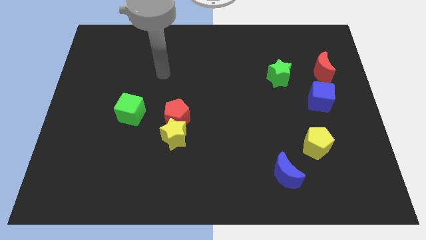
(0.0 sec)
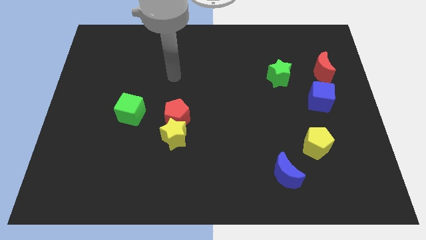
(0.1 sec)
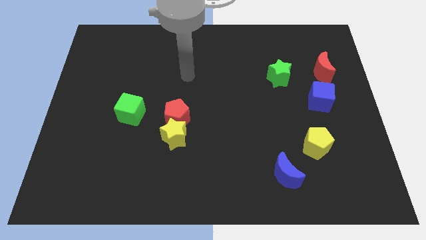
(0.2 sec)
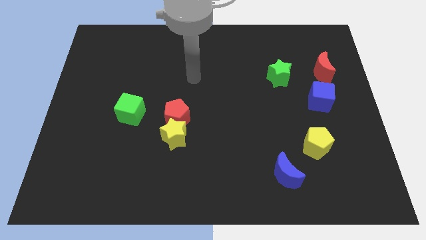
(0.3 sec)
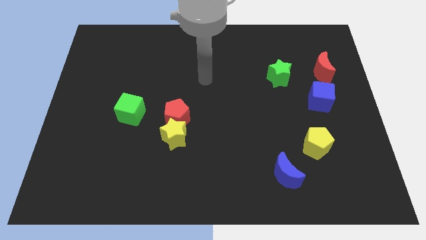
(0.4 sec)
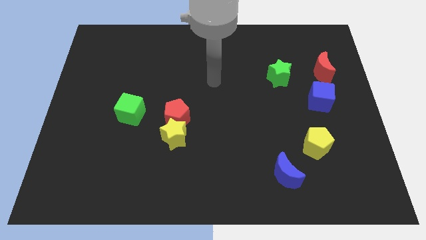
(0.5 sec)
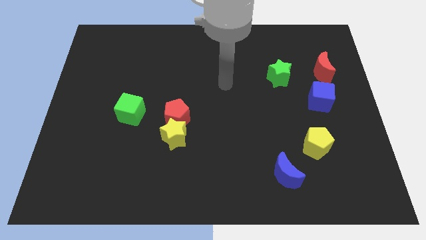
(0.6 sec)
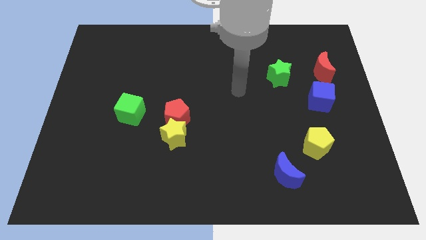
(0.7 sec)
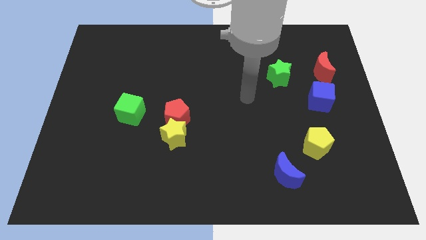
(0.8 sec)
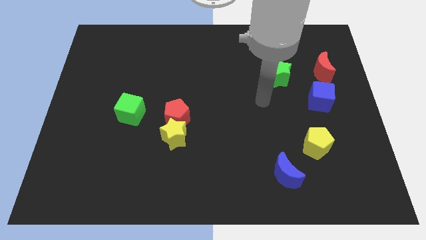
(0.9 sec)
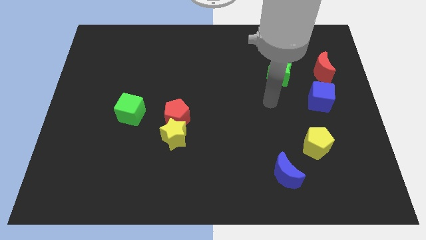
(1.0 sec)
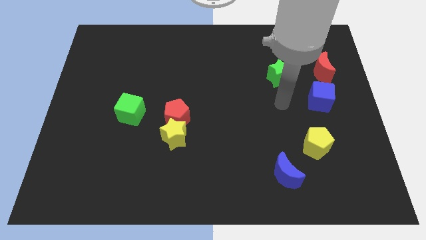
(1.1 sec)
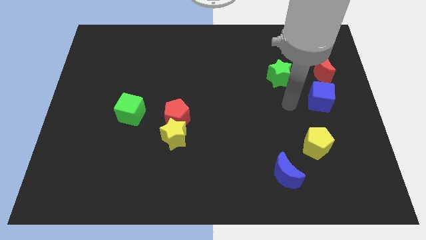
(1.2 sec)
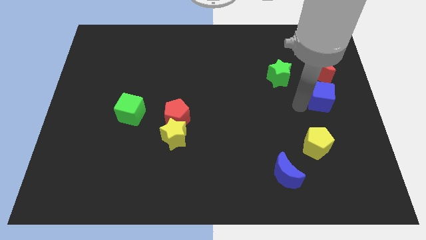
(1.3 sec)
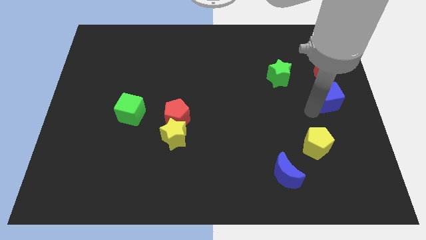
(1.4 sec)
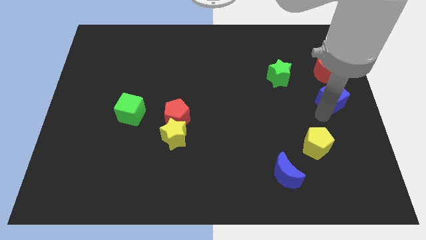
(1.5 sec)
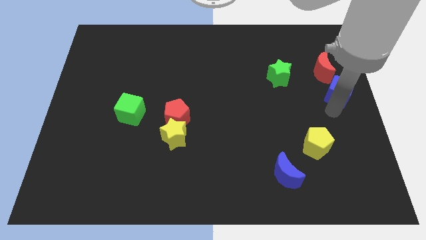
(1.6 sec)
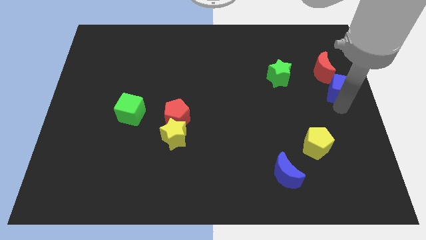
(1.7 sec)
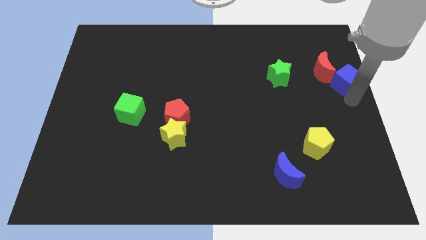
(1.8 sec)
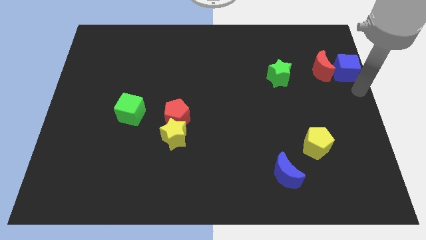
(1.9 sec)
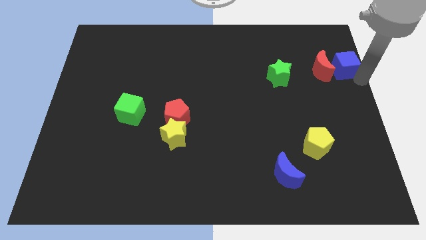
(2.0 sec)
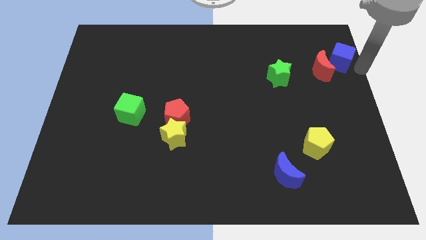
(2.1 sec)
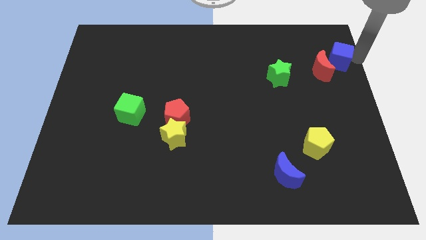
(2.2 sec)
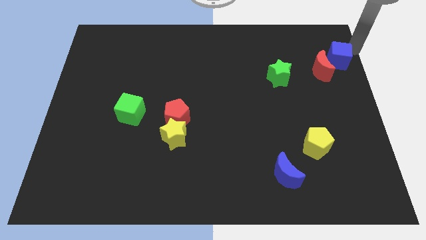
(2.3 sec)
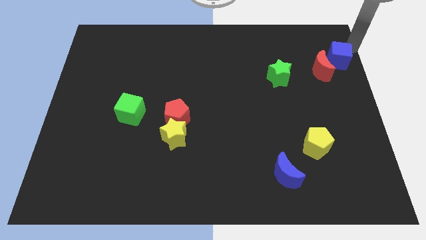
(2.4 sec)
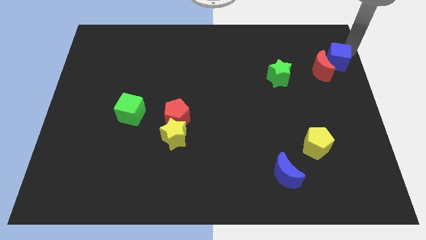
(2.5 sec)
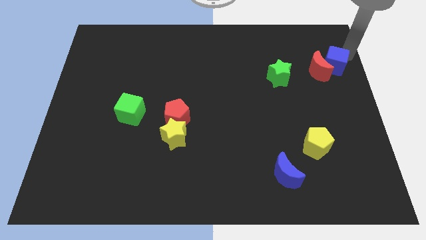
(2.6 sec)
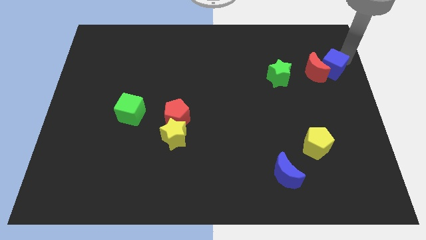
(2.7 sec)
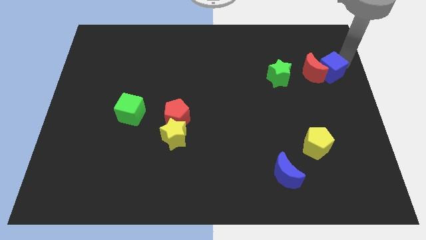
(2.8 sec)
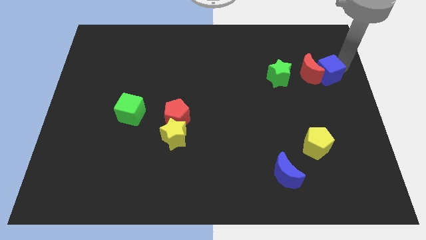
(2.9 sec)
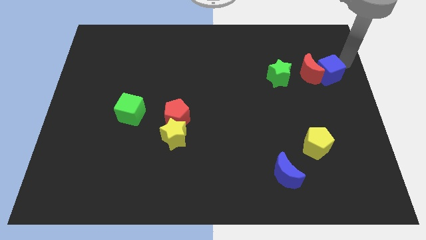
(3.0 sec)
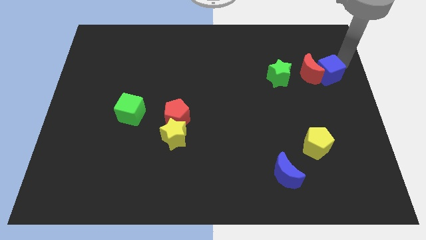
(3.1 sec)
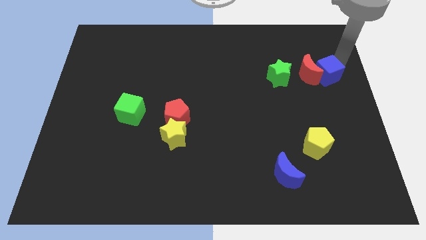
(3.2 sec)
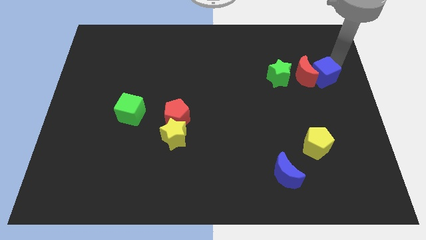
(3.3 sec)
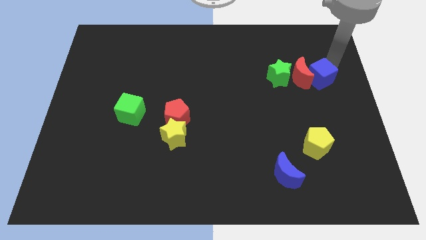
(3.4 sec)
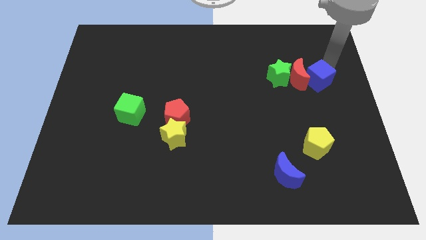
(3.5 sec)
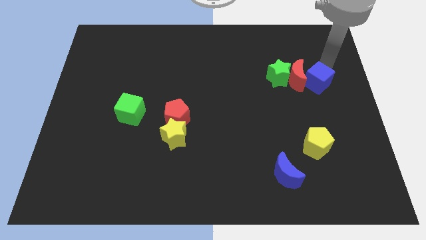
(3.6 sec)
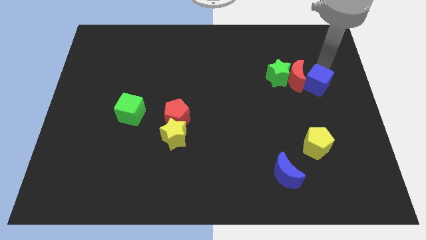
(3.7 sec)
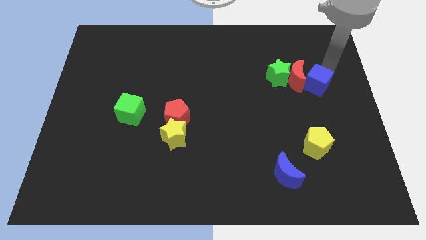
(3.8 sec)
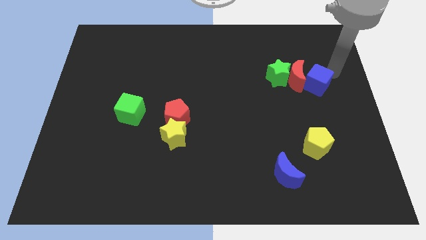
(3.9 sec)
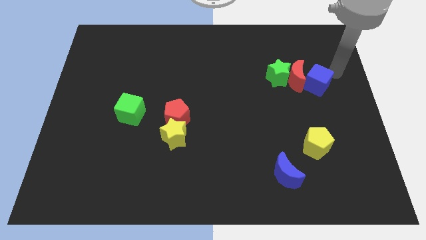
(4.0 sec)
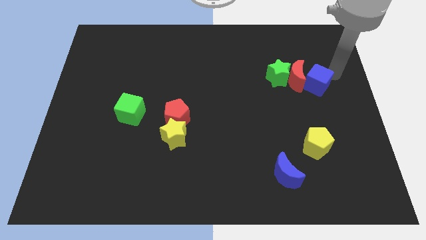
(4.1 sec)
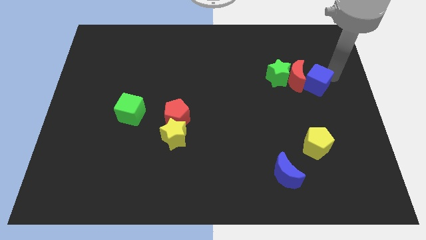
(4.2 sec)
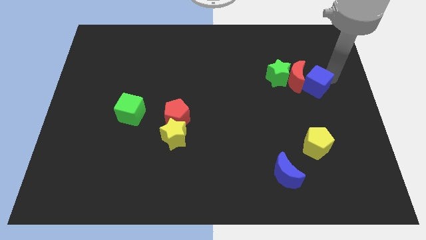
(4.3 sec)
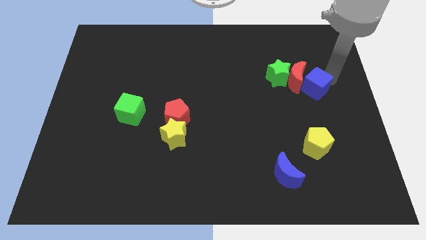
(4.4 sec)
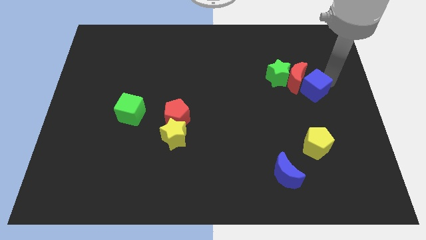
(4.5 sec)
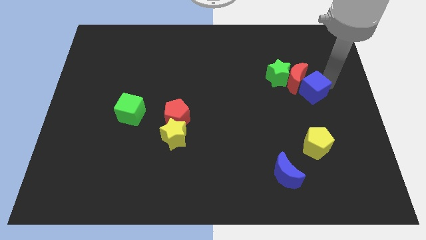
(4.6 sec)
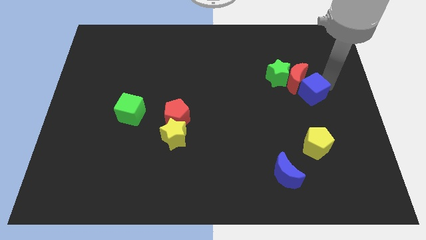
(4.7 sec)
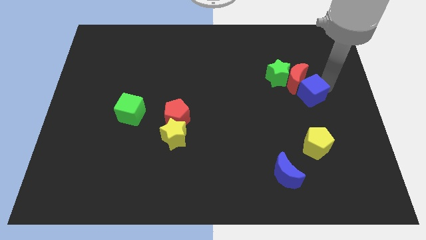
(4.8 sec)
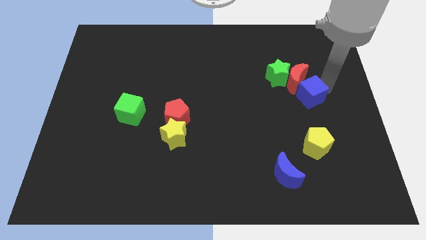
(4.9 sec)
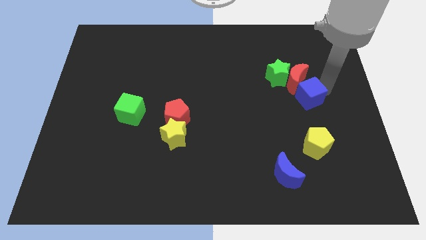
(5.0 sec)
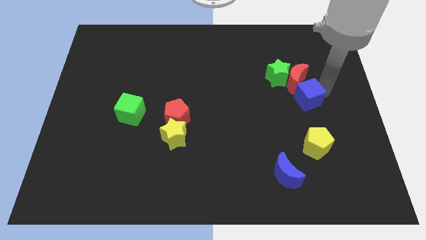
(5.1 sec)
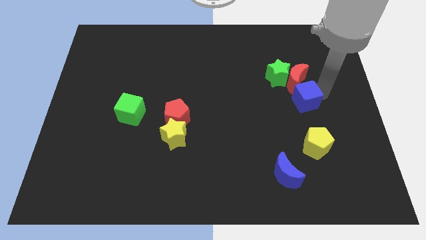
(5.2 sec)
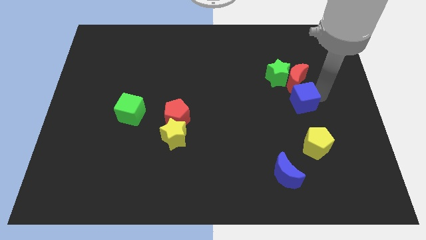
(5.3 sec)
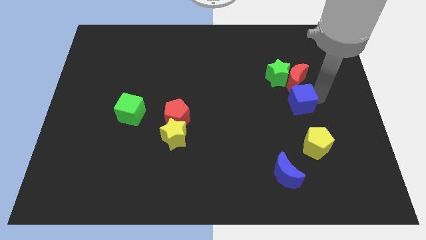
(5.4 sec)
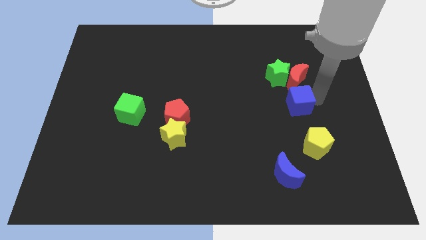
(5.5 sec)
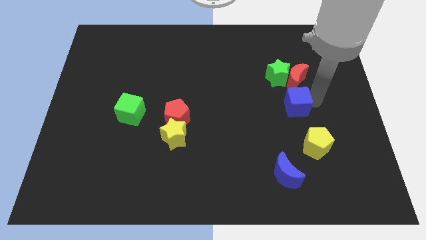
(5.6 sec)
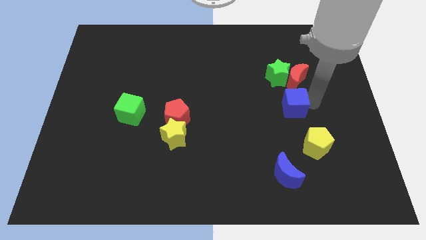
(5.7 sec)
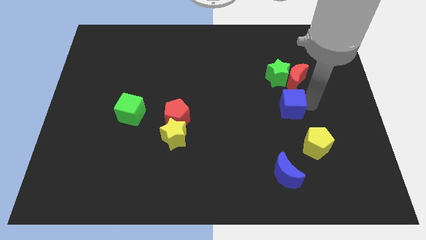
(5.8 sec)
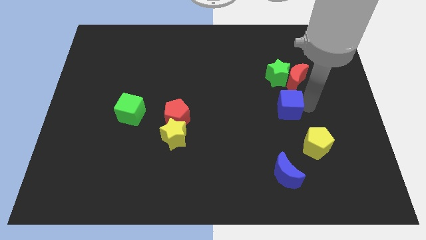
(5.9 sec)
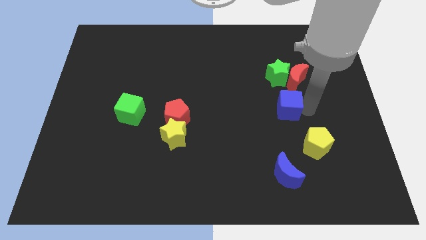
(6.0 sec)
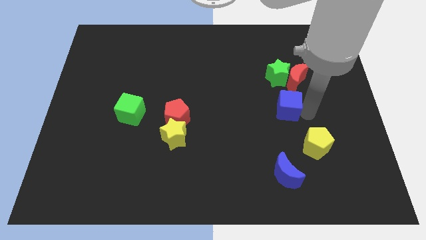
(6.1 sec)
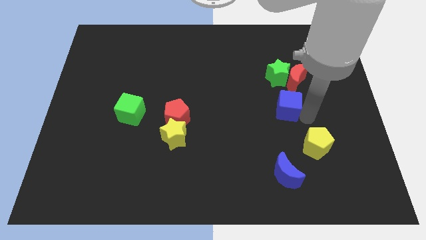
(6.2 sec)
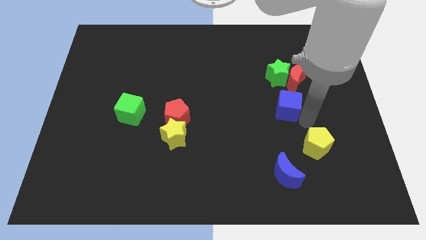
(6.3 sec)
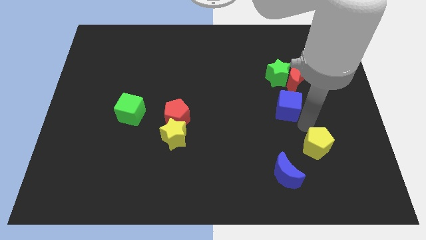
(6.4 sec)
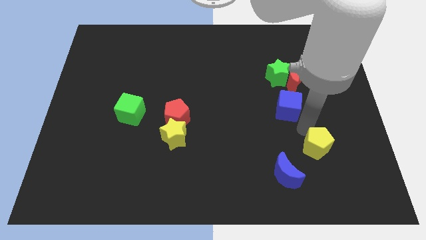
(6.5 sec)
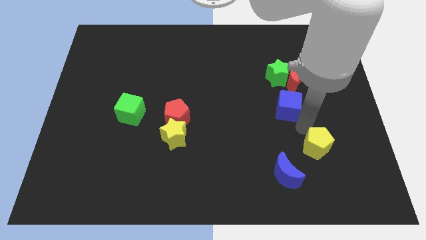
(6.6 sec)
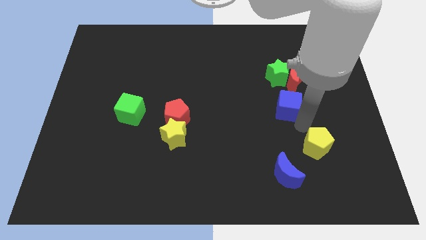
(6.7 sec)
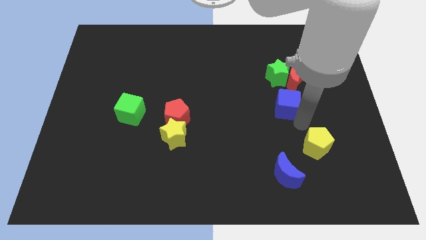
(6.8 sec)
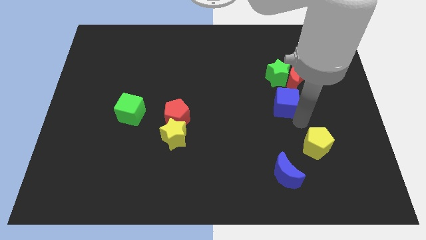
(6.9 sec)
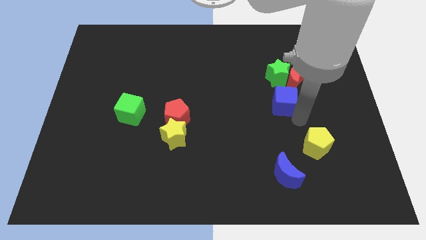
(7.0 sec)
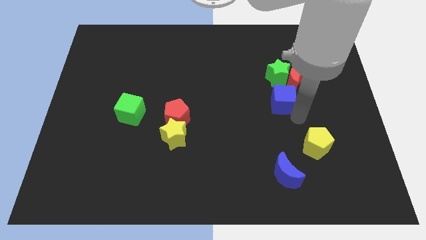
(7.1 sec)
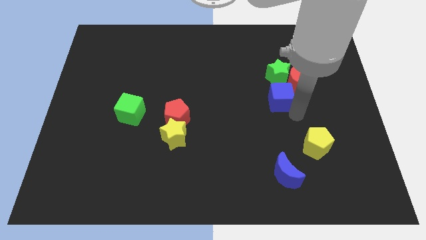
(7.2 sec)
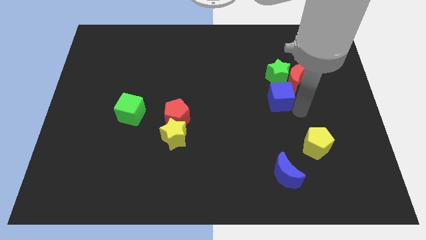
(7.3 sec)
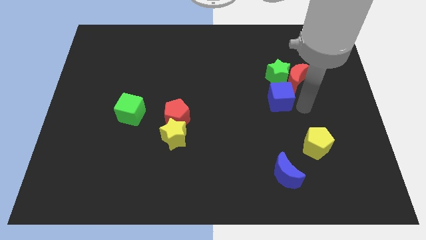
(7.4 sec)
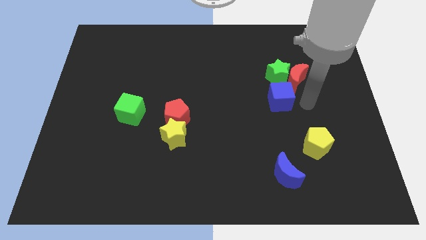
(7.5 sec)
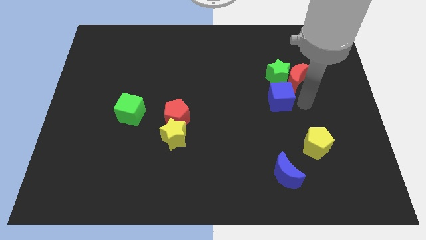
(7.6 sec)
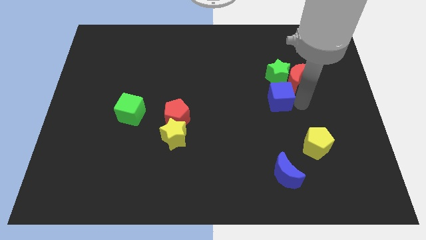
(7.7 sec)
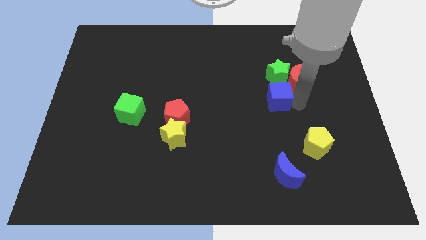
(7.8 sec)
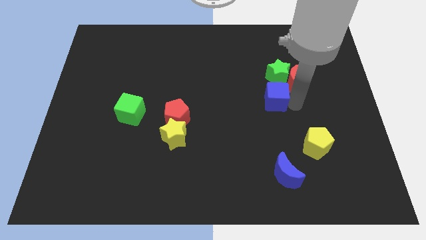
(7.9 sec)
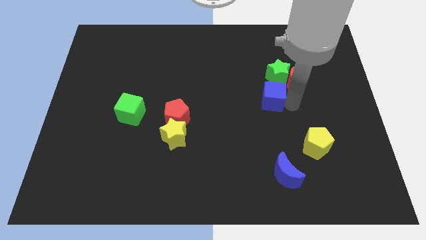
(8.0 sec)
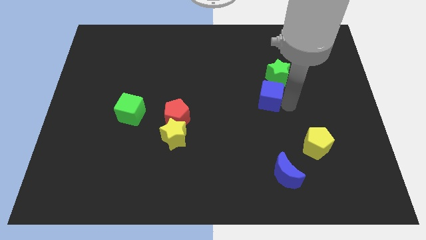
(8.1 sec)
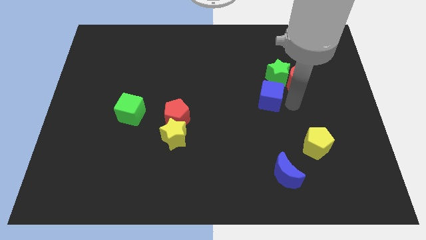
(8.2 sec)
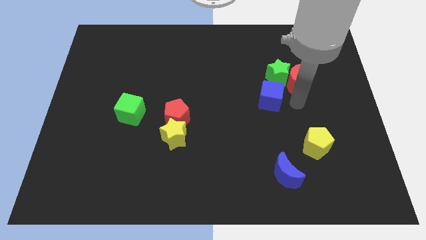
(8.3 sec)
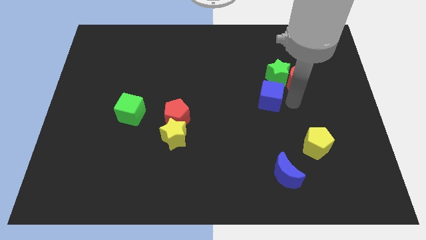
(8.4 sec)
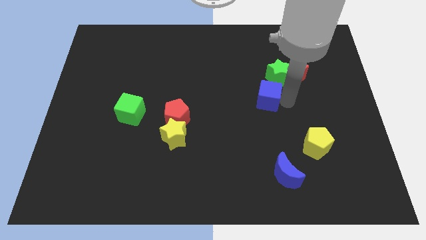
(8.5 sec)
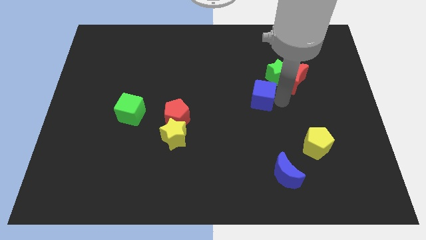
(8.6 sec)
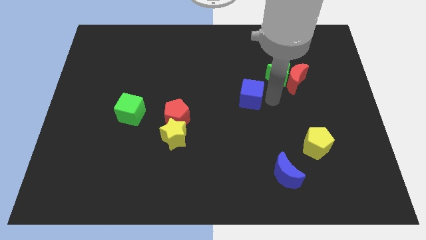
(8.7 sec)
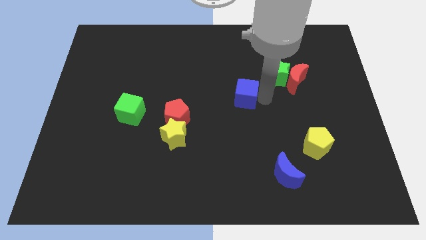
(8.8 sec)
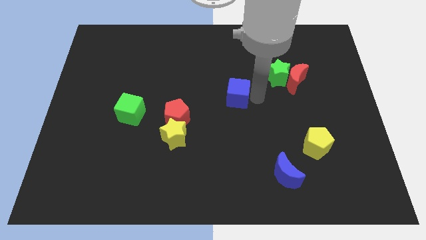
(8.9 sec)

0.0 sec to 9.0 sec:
slide the blue cube to the left
